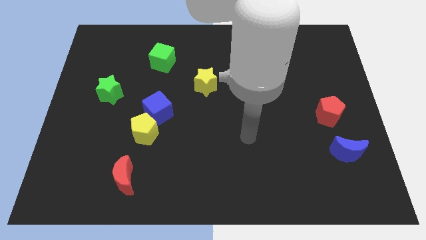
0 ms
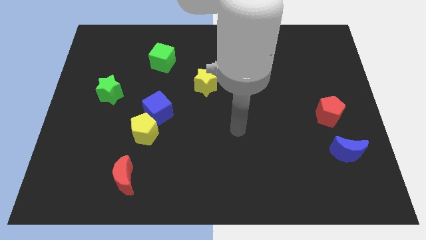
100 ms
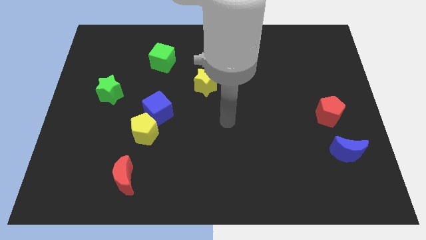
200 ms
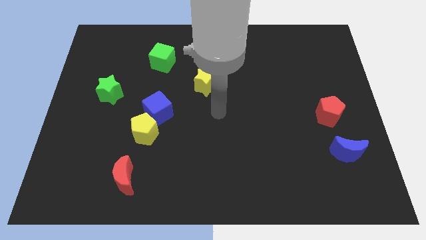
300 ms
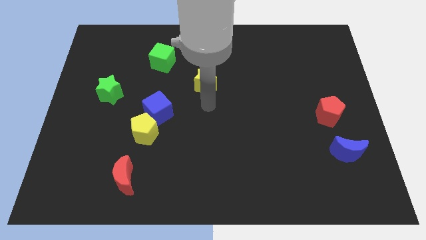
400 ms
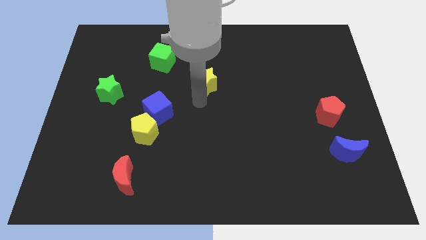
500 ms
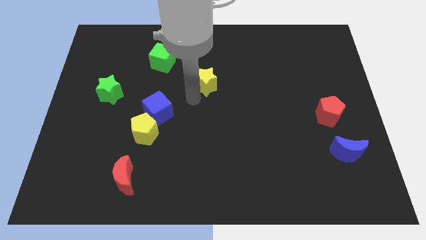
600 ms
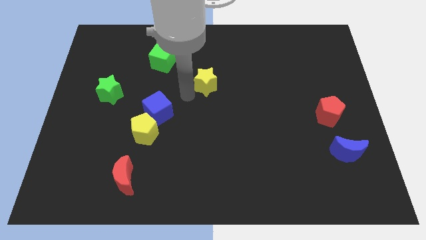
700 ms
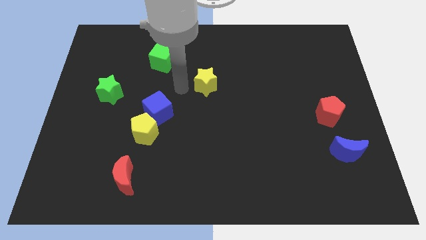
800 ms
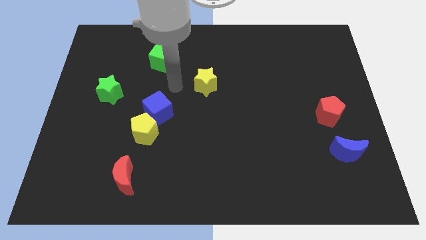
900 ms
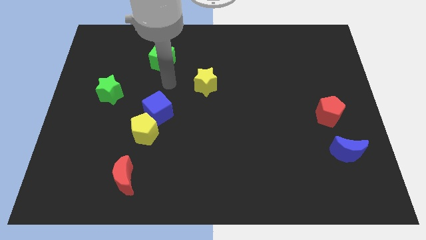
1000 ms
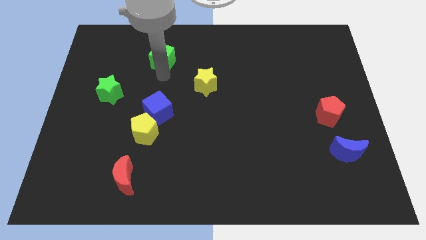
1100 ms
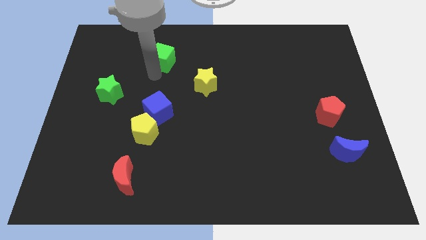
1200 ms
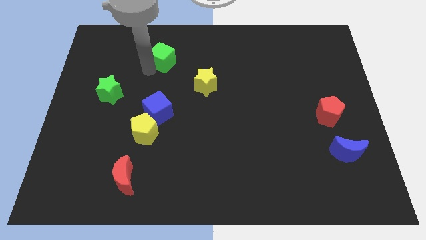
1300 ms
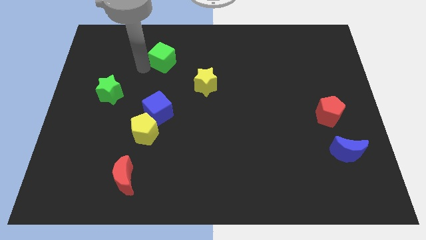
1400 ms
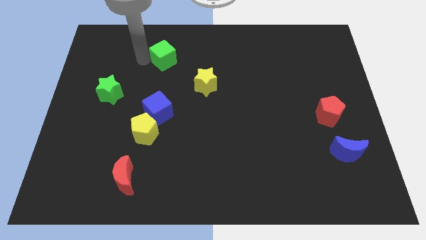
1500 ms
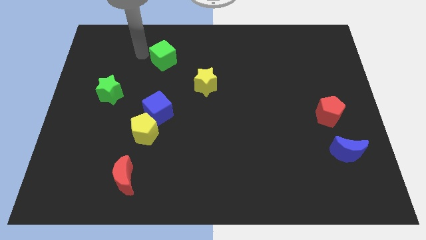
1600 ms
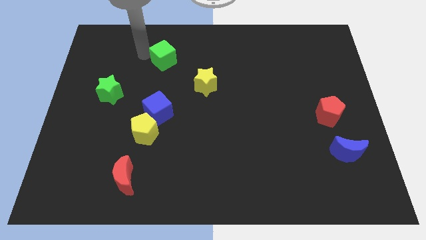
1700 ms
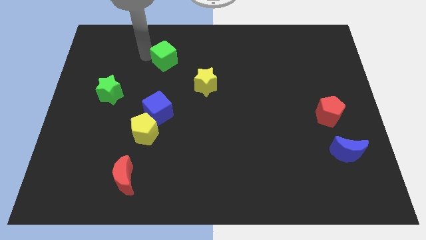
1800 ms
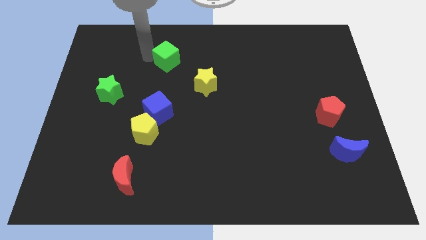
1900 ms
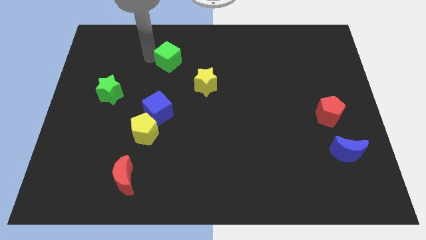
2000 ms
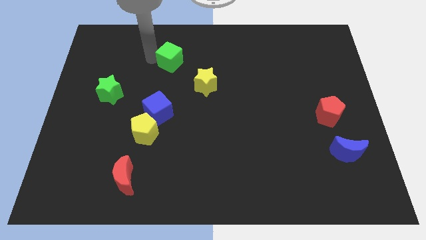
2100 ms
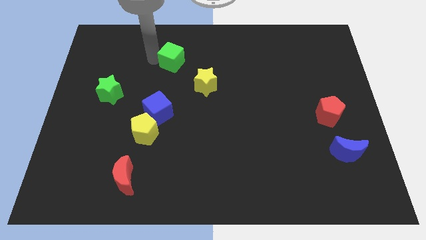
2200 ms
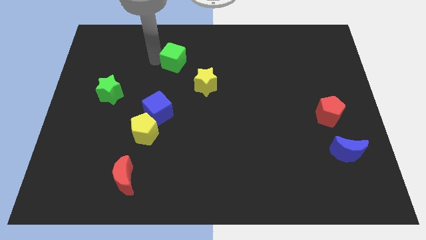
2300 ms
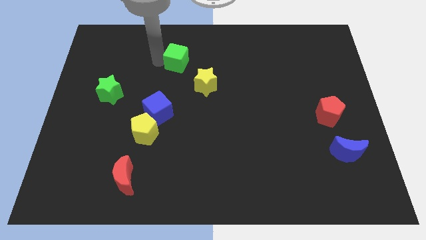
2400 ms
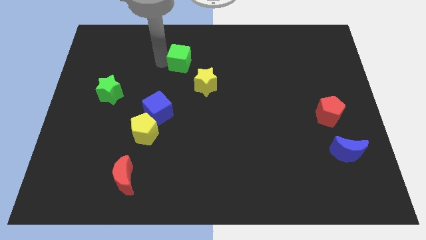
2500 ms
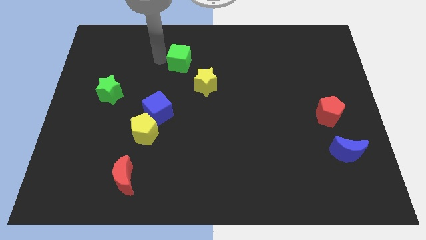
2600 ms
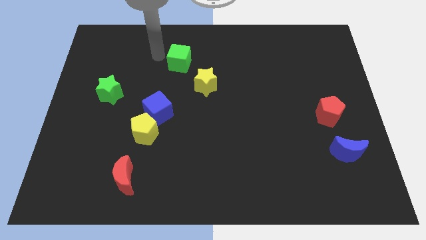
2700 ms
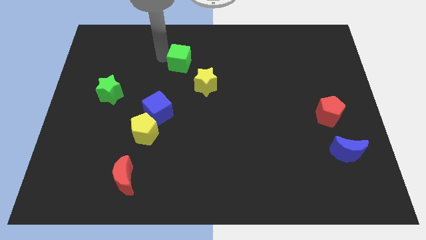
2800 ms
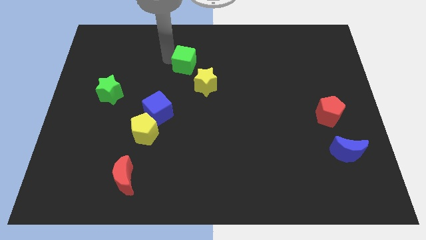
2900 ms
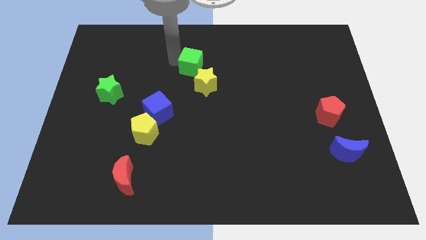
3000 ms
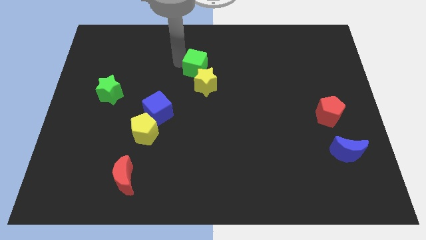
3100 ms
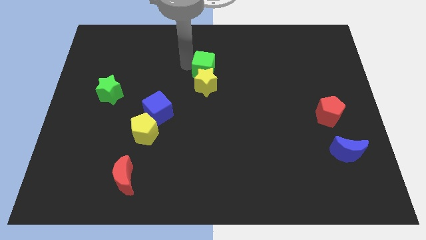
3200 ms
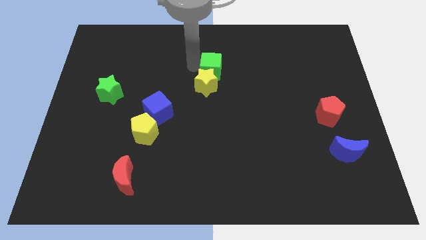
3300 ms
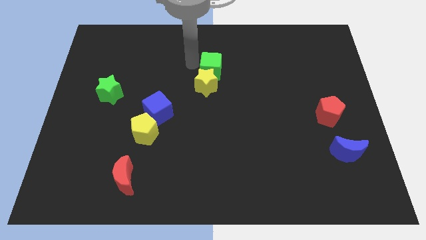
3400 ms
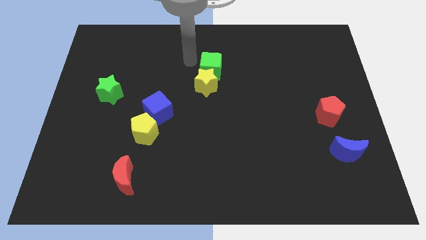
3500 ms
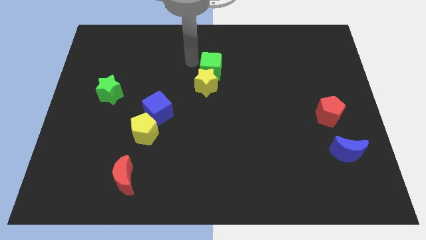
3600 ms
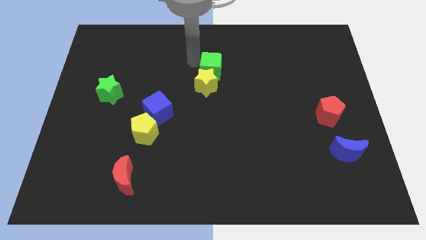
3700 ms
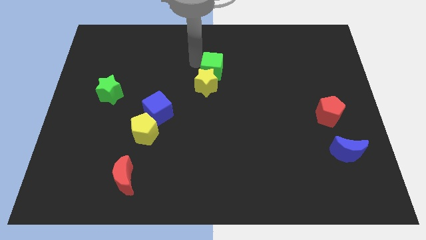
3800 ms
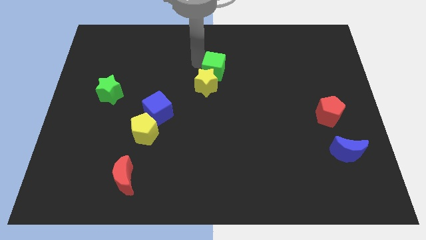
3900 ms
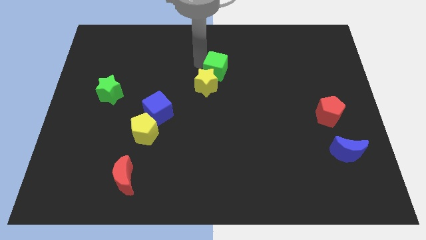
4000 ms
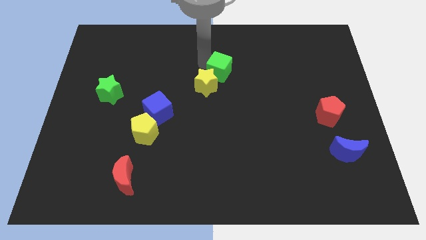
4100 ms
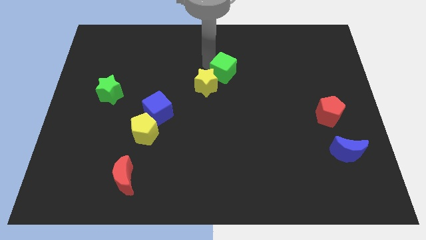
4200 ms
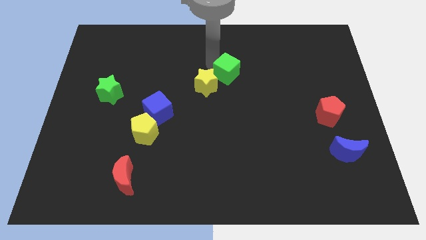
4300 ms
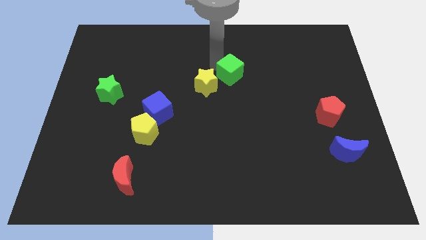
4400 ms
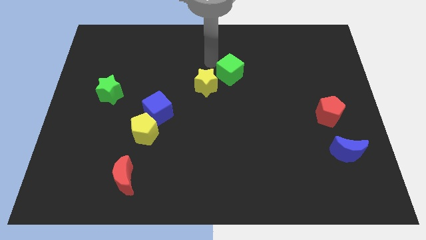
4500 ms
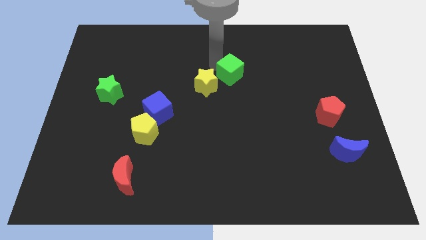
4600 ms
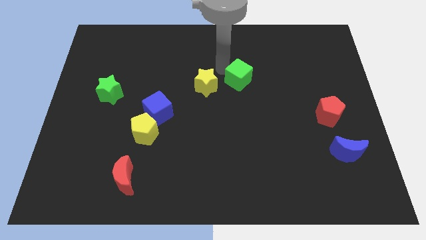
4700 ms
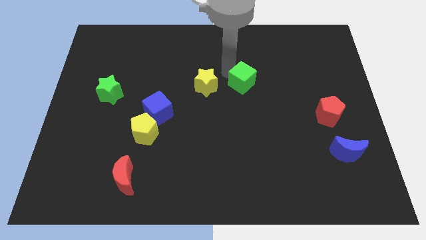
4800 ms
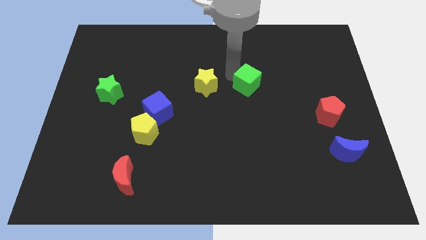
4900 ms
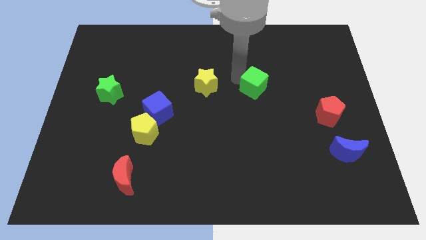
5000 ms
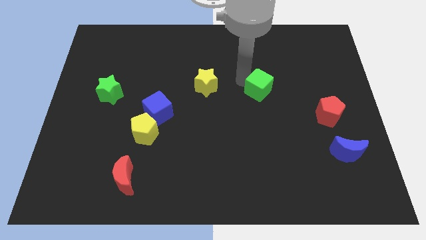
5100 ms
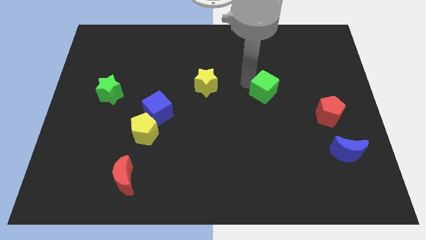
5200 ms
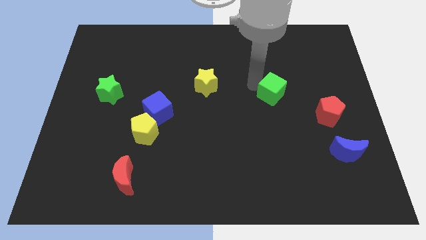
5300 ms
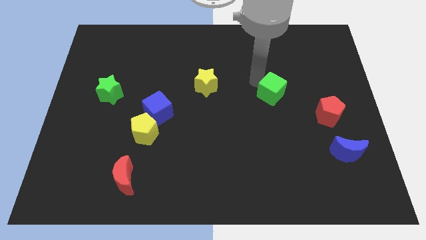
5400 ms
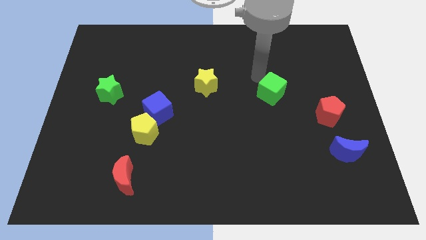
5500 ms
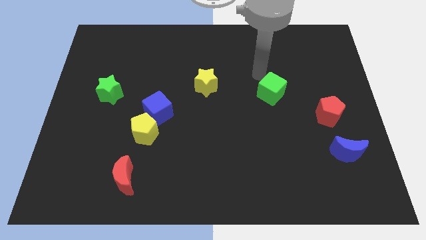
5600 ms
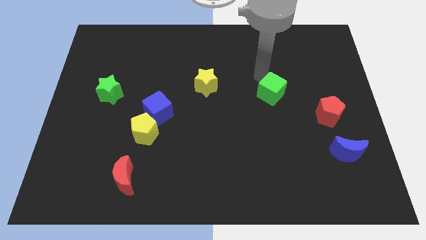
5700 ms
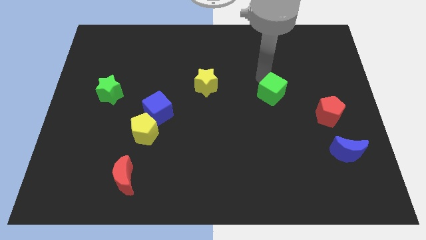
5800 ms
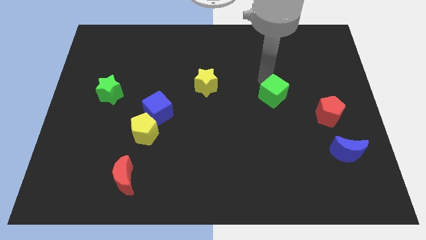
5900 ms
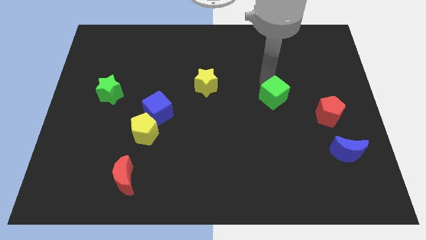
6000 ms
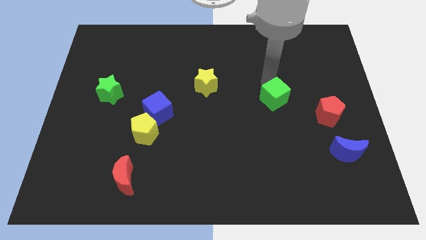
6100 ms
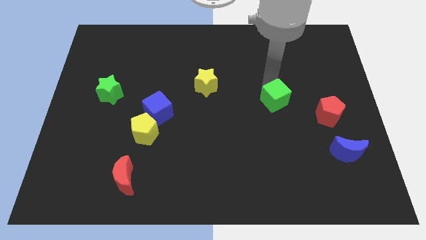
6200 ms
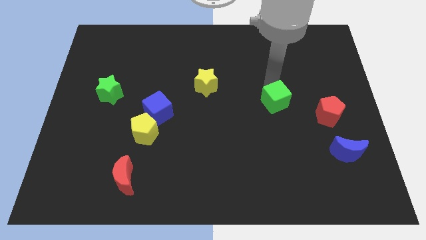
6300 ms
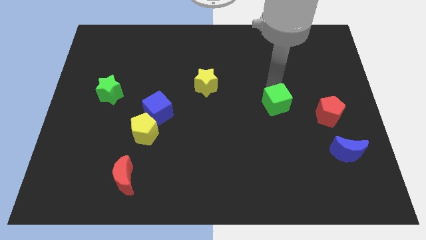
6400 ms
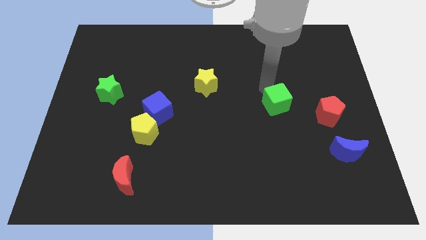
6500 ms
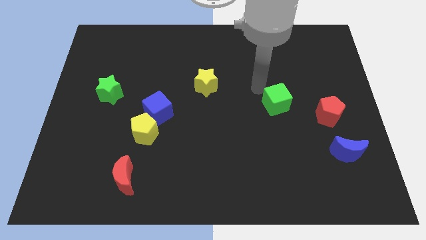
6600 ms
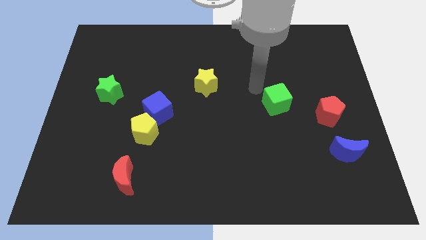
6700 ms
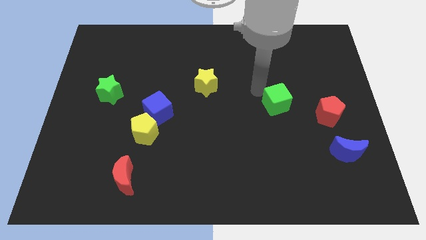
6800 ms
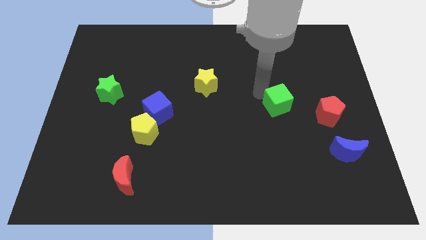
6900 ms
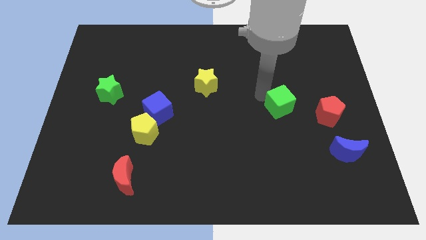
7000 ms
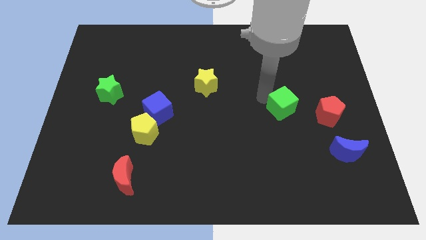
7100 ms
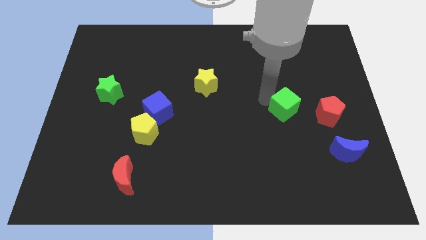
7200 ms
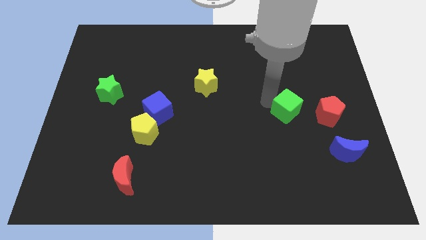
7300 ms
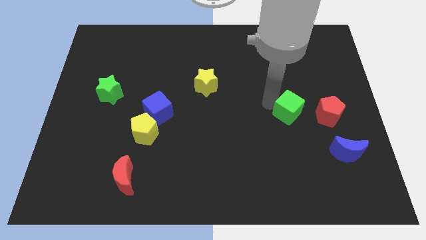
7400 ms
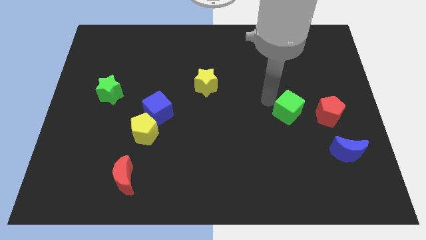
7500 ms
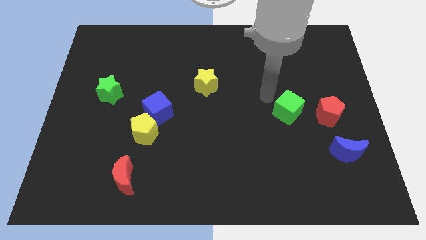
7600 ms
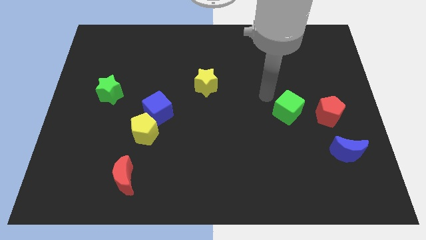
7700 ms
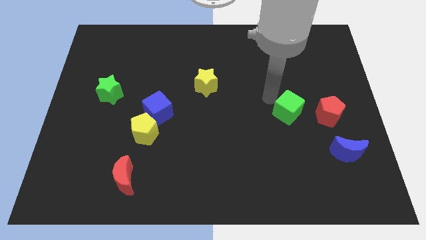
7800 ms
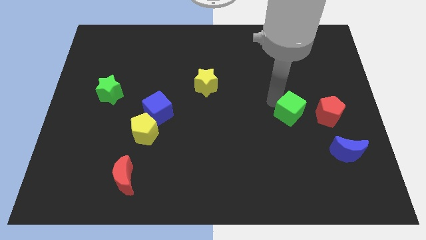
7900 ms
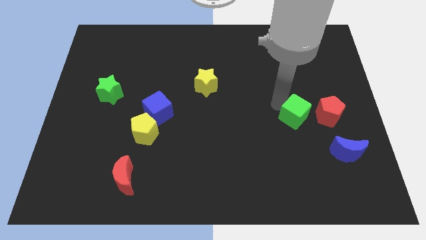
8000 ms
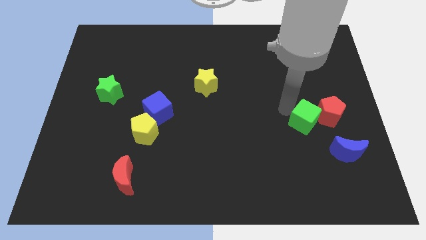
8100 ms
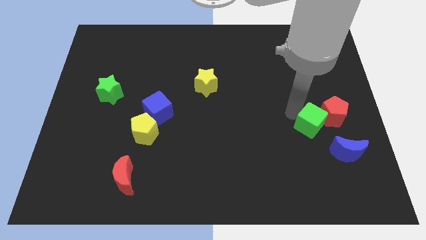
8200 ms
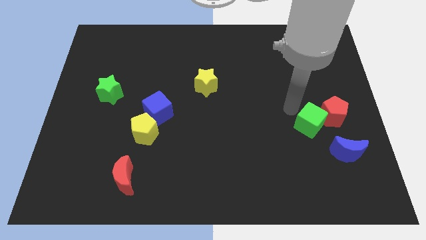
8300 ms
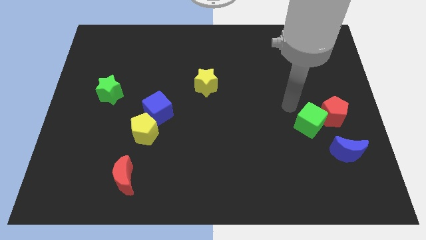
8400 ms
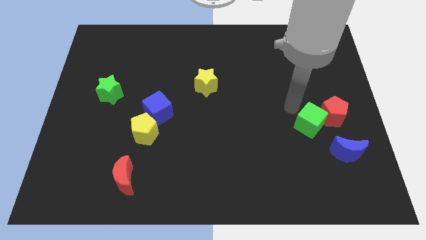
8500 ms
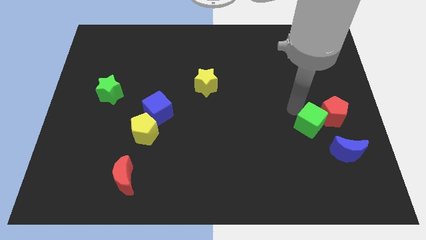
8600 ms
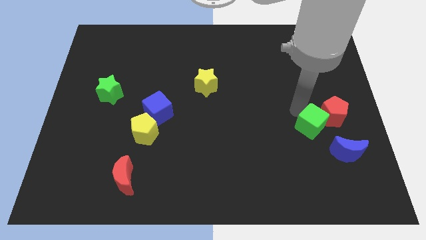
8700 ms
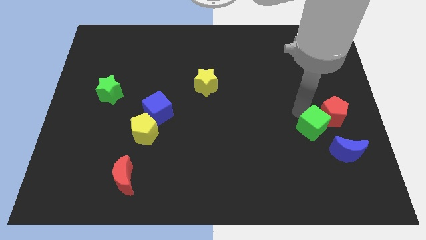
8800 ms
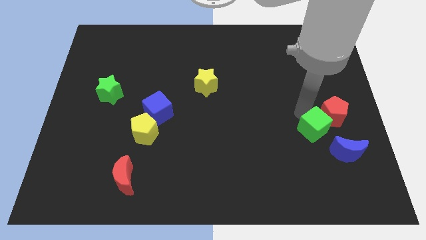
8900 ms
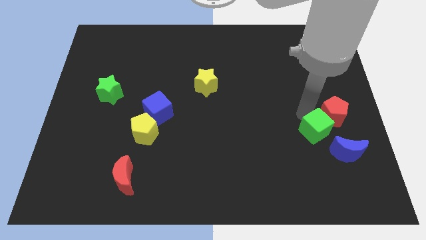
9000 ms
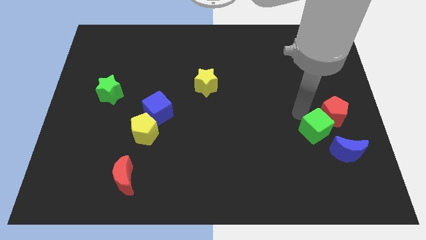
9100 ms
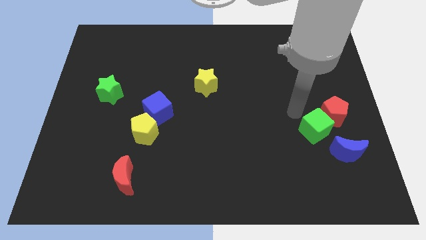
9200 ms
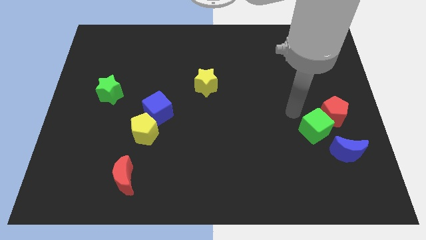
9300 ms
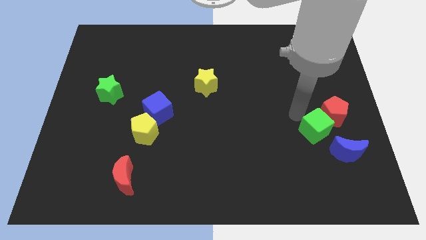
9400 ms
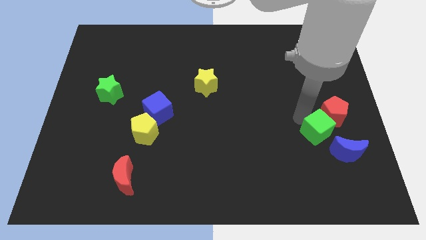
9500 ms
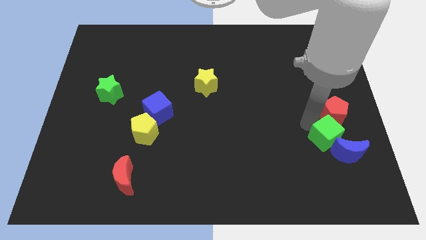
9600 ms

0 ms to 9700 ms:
slide the green cube close to the blue moon
